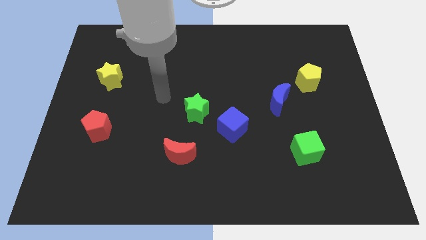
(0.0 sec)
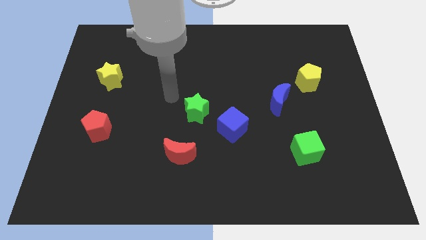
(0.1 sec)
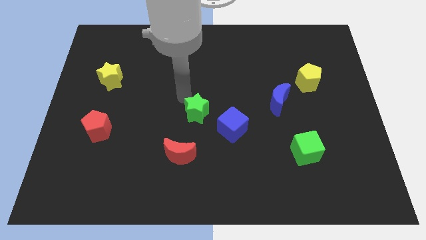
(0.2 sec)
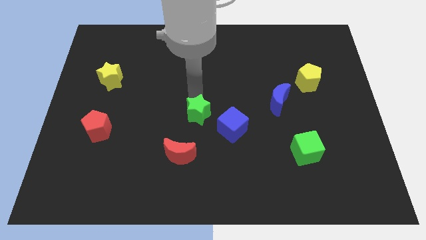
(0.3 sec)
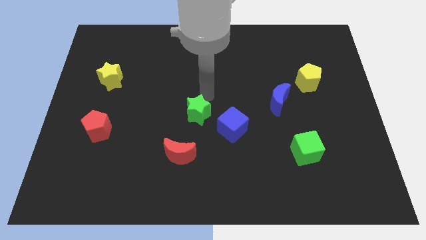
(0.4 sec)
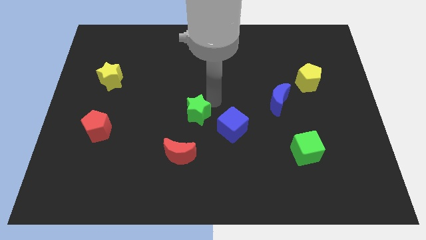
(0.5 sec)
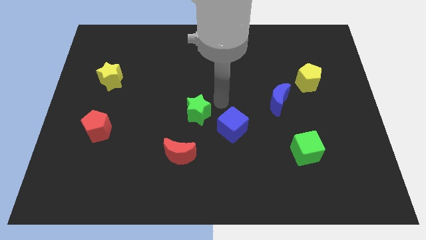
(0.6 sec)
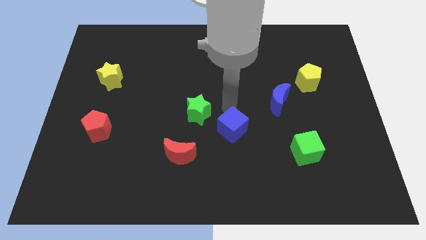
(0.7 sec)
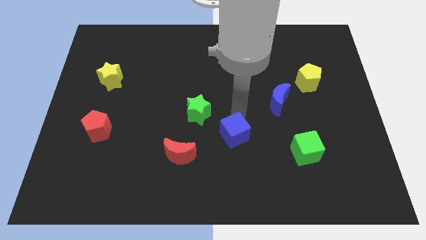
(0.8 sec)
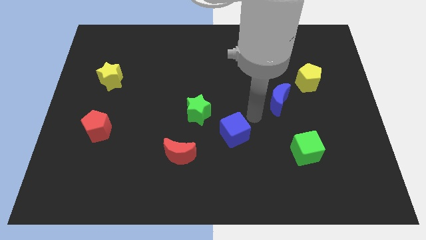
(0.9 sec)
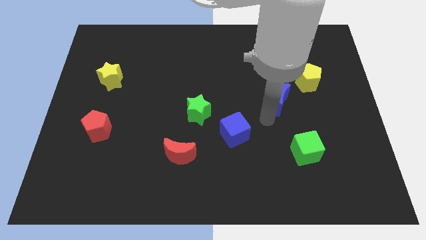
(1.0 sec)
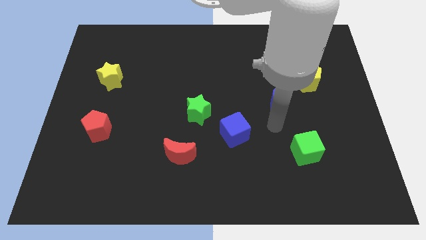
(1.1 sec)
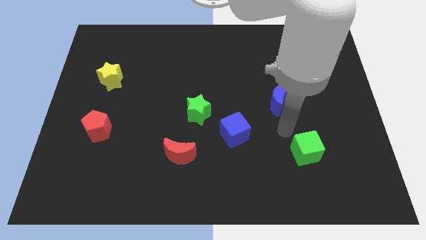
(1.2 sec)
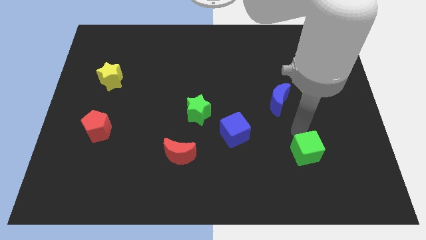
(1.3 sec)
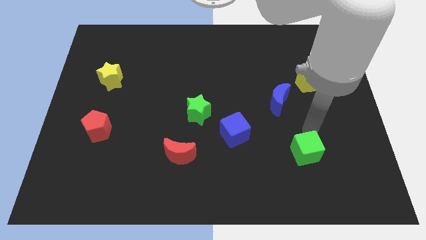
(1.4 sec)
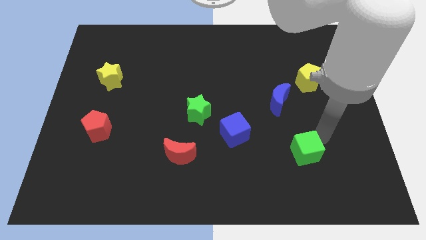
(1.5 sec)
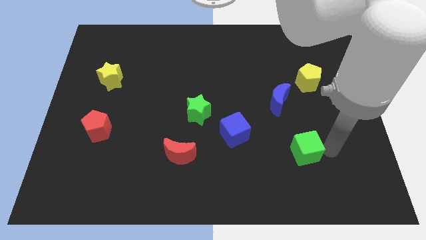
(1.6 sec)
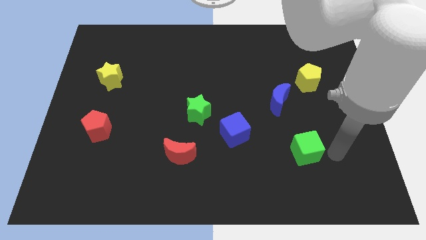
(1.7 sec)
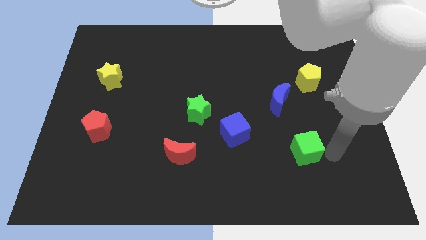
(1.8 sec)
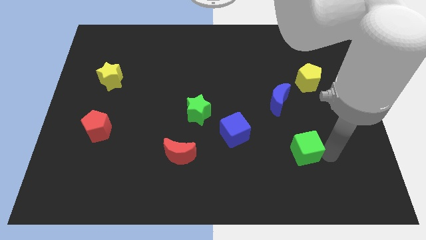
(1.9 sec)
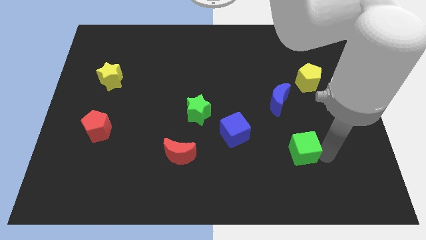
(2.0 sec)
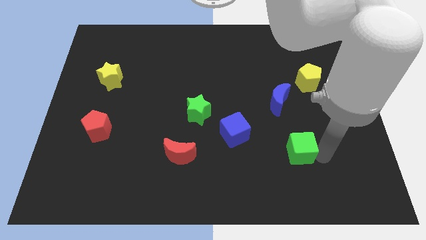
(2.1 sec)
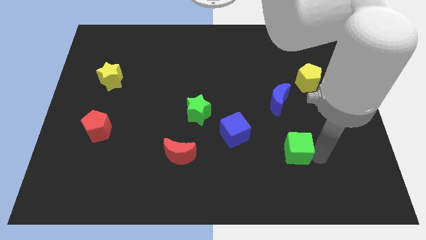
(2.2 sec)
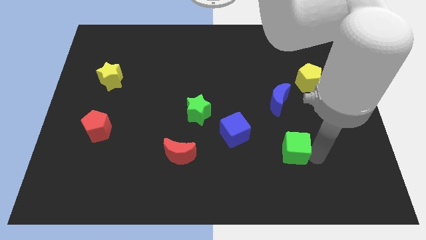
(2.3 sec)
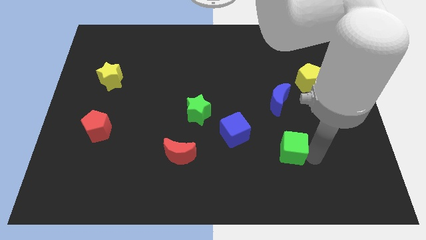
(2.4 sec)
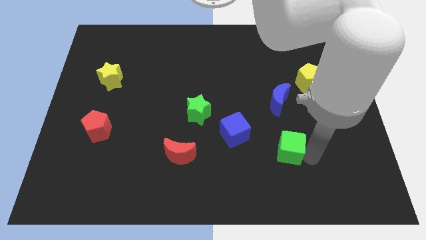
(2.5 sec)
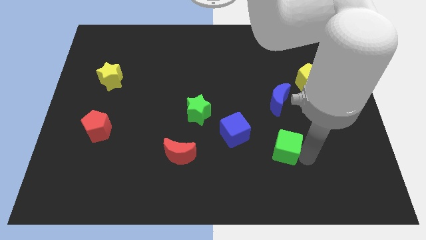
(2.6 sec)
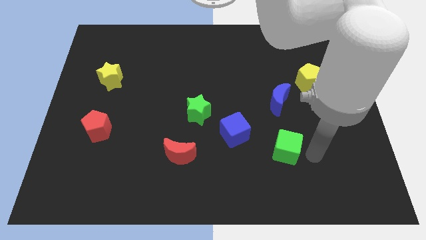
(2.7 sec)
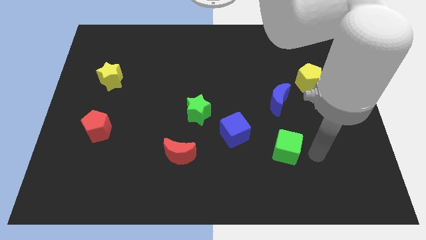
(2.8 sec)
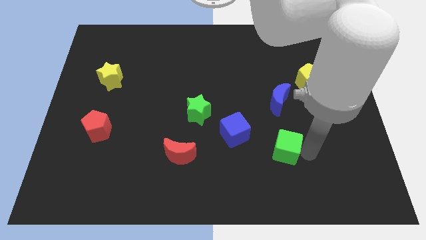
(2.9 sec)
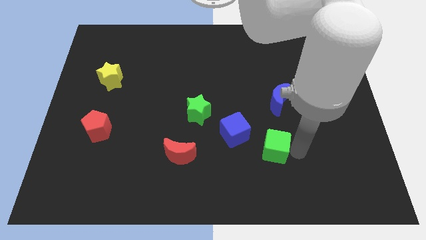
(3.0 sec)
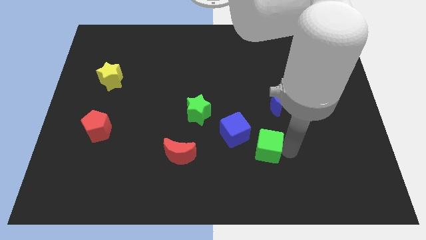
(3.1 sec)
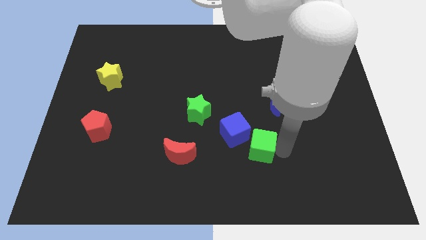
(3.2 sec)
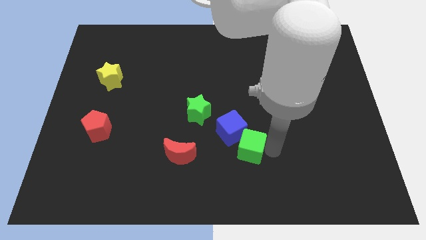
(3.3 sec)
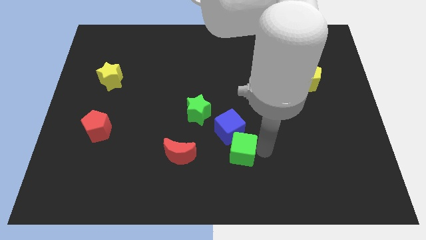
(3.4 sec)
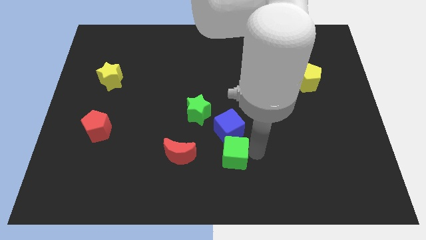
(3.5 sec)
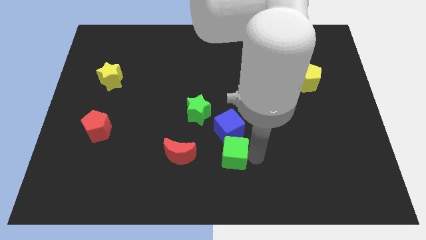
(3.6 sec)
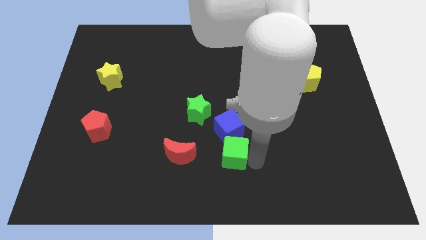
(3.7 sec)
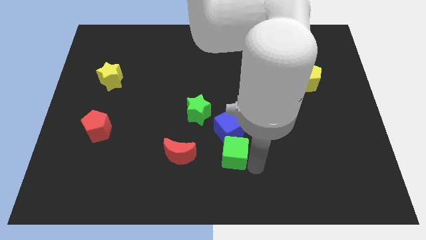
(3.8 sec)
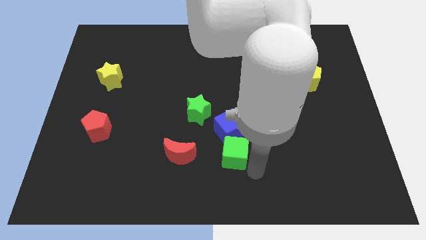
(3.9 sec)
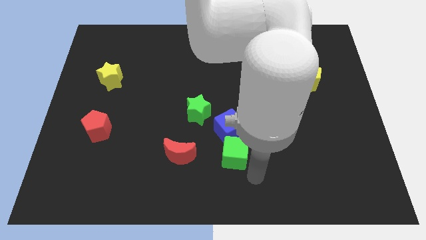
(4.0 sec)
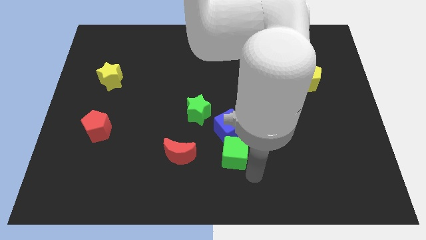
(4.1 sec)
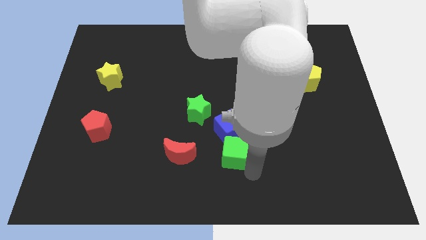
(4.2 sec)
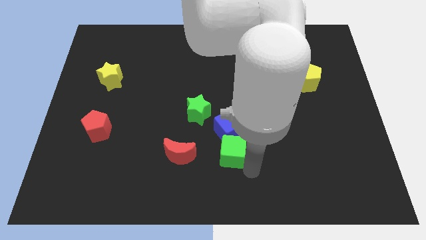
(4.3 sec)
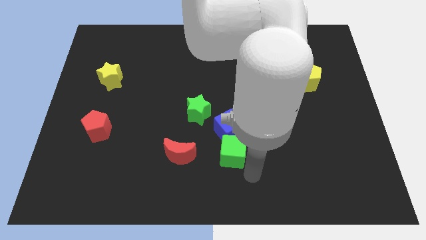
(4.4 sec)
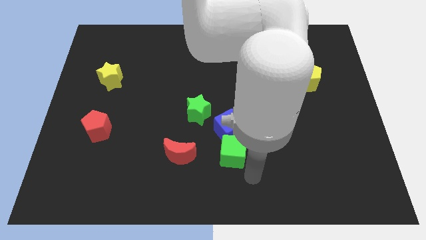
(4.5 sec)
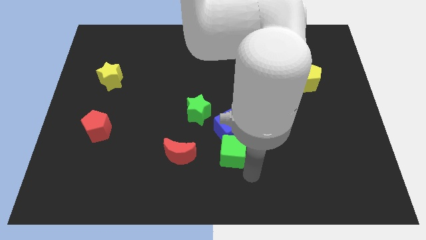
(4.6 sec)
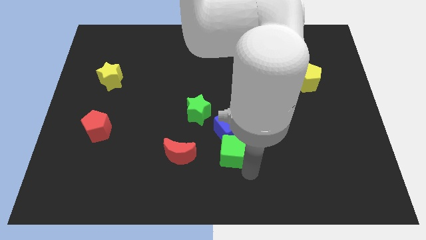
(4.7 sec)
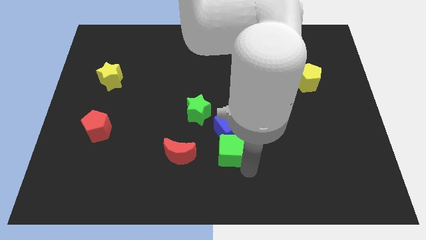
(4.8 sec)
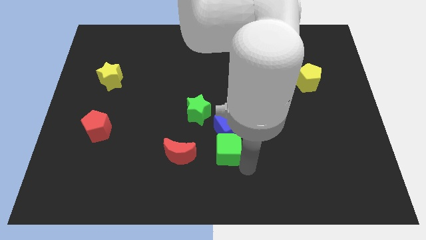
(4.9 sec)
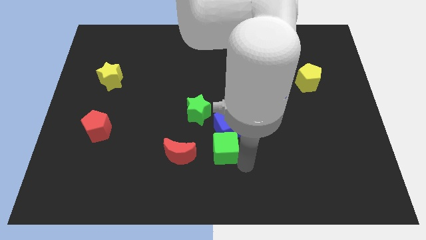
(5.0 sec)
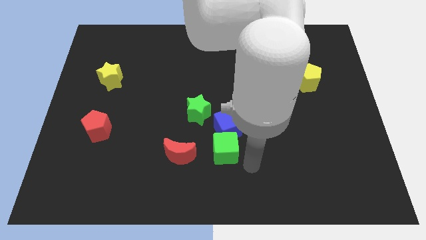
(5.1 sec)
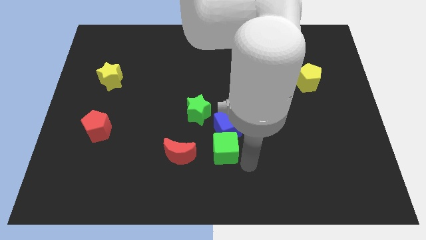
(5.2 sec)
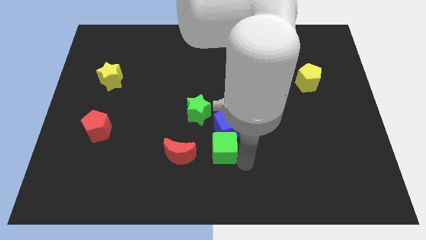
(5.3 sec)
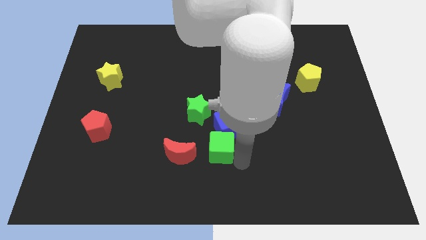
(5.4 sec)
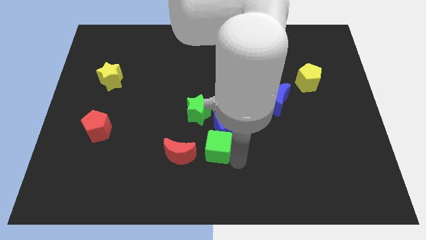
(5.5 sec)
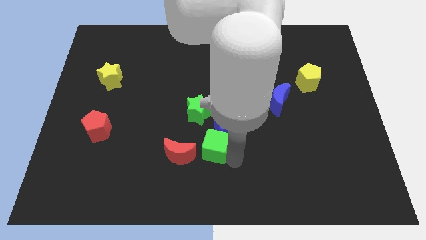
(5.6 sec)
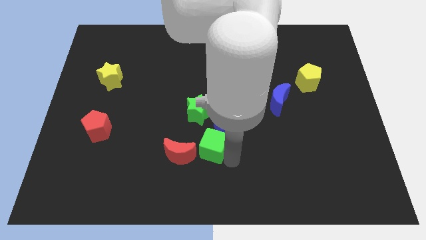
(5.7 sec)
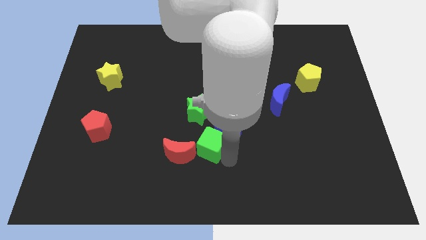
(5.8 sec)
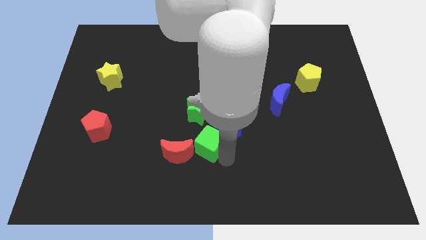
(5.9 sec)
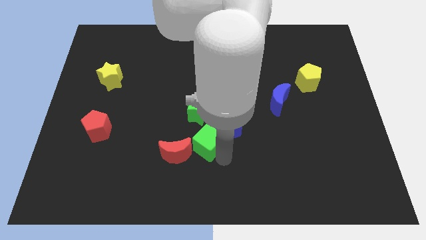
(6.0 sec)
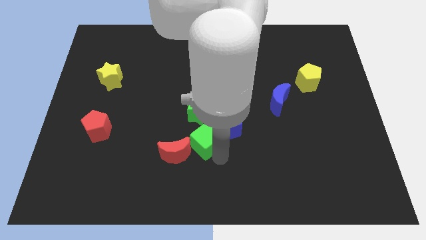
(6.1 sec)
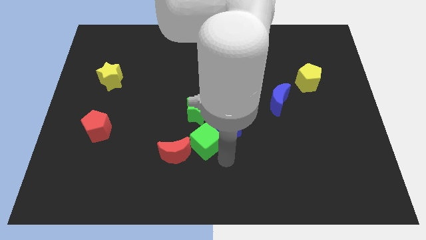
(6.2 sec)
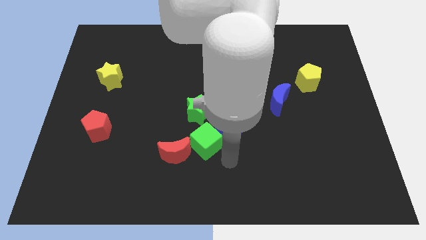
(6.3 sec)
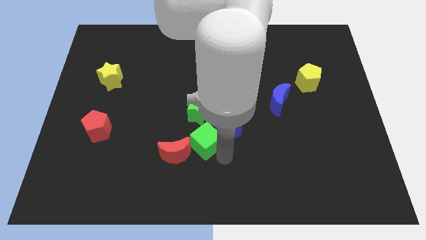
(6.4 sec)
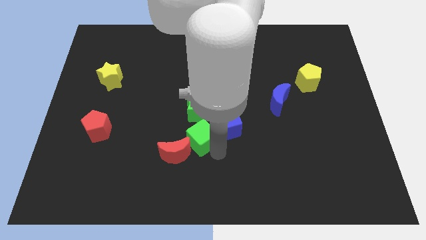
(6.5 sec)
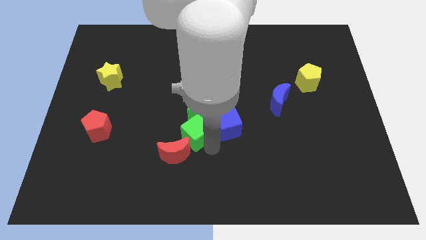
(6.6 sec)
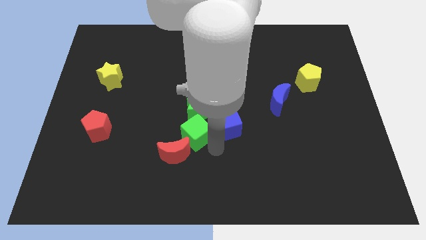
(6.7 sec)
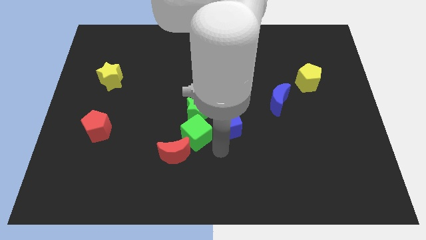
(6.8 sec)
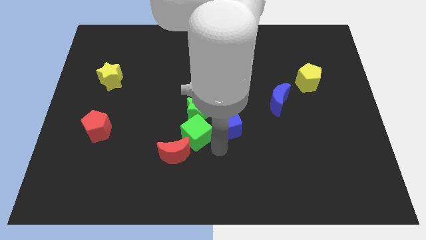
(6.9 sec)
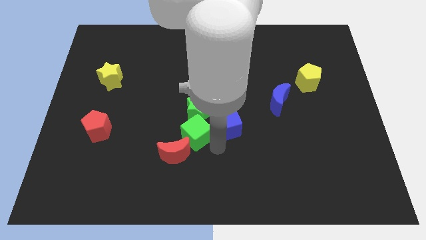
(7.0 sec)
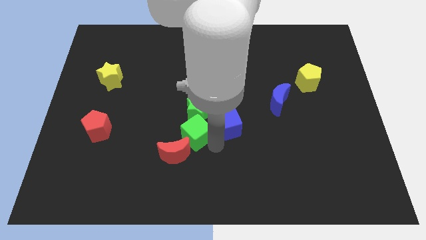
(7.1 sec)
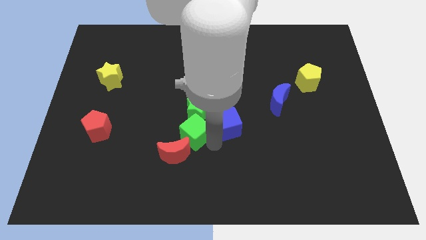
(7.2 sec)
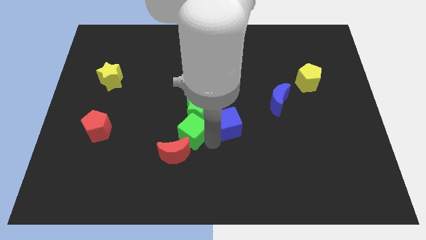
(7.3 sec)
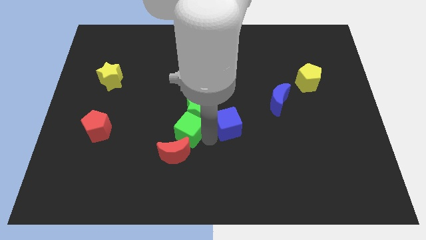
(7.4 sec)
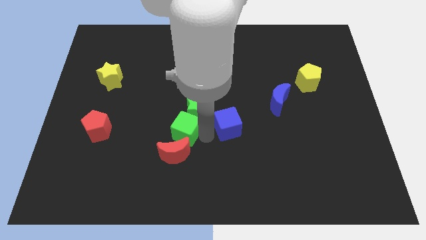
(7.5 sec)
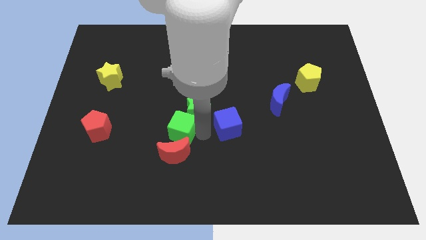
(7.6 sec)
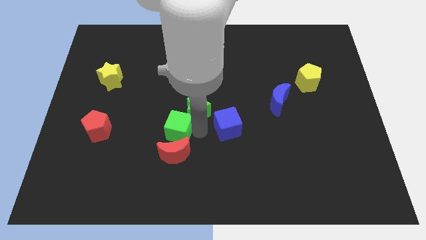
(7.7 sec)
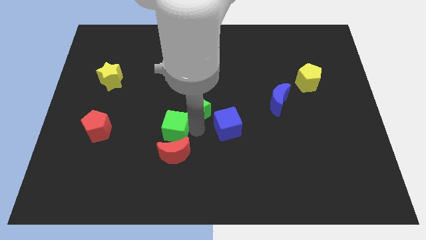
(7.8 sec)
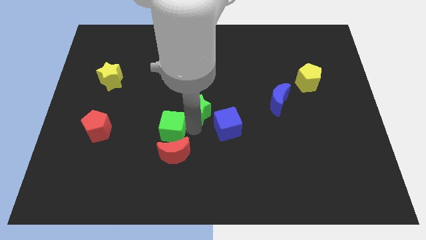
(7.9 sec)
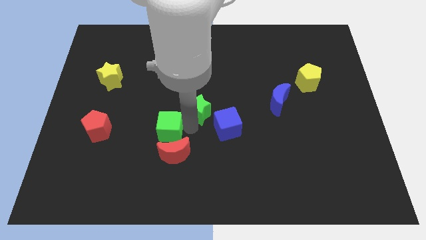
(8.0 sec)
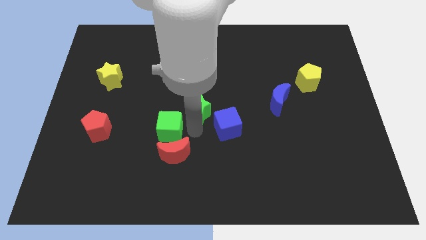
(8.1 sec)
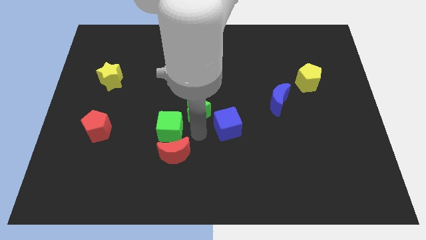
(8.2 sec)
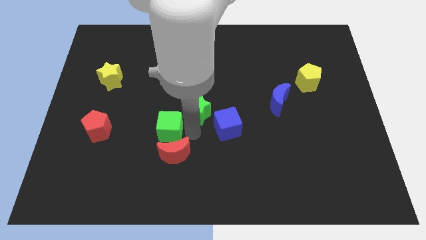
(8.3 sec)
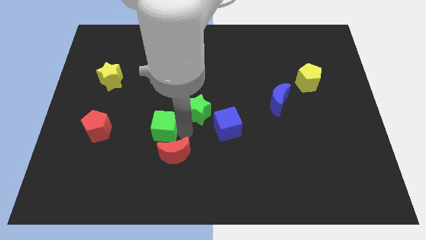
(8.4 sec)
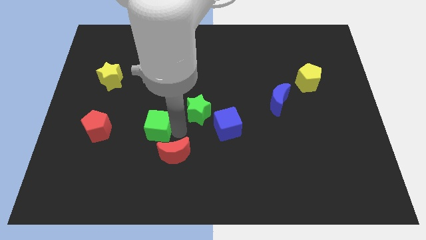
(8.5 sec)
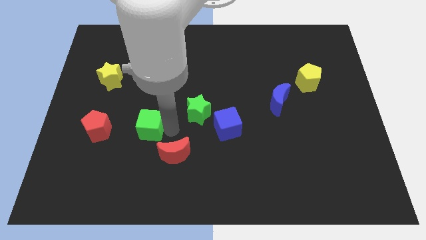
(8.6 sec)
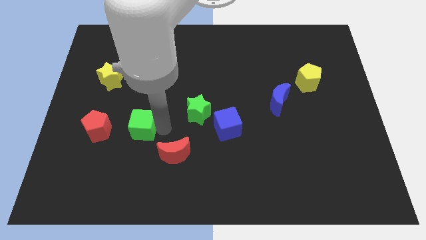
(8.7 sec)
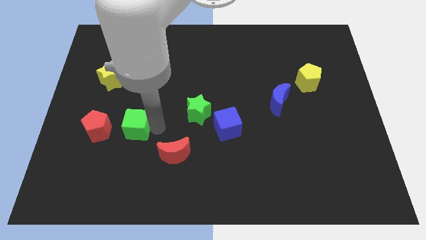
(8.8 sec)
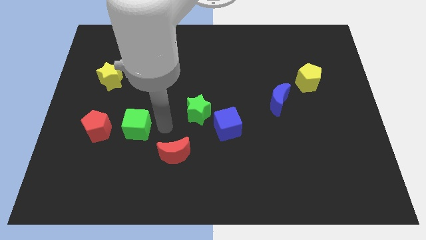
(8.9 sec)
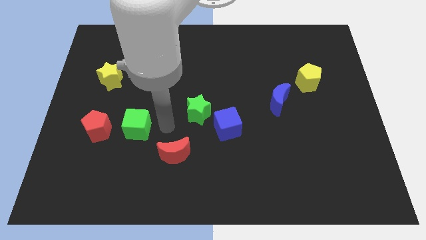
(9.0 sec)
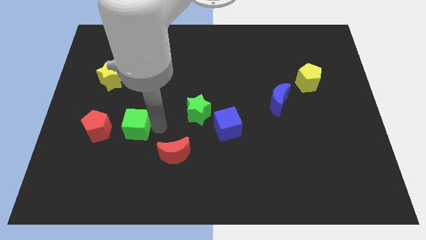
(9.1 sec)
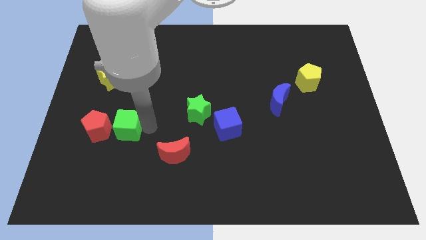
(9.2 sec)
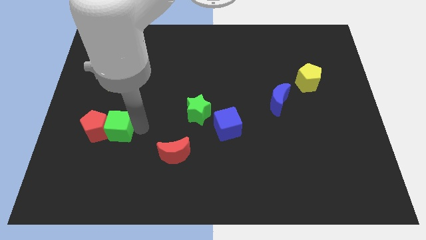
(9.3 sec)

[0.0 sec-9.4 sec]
slide the green cube close to the red pentagon
